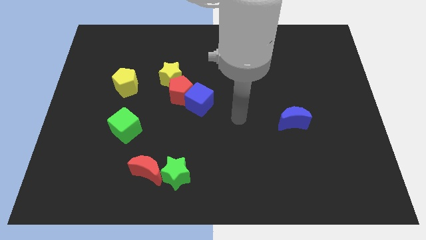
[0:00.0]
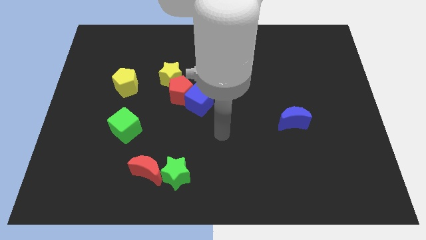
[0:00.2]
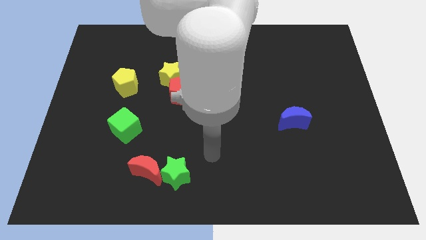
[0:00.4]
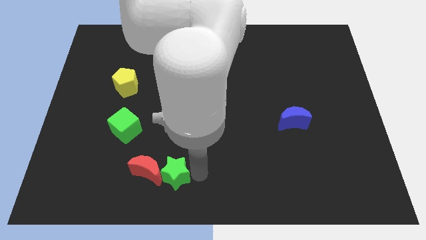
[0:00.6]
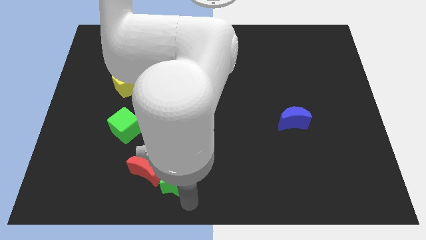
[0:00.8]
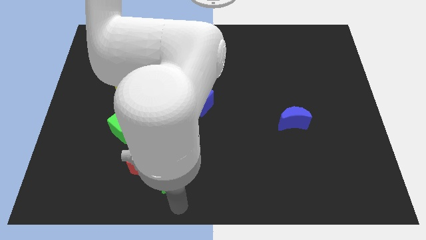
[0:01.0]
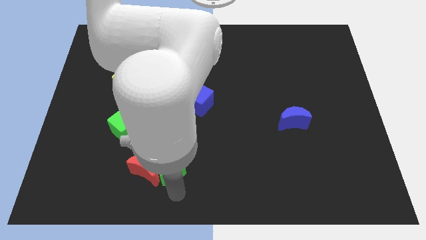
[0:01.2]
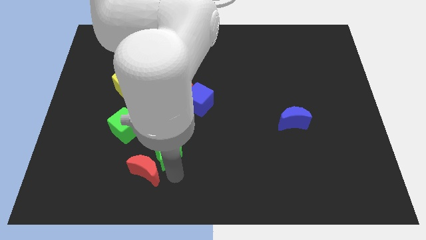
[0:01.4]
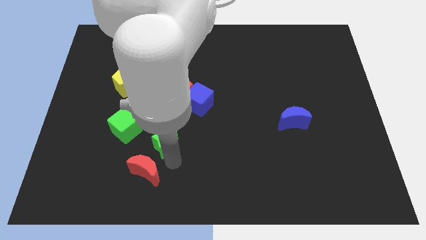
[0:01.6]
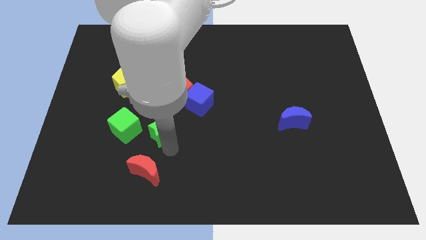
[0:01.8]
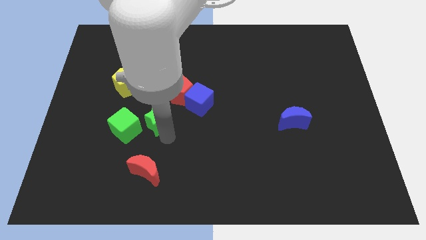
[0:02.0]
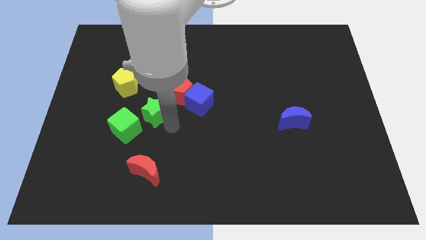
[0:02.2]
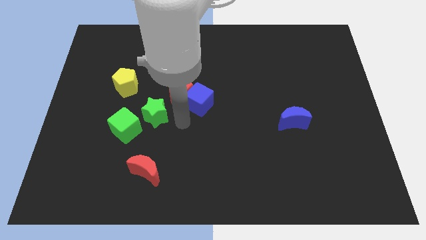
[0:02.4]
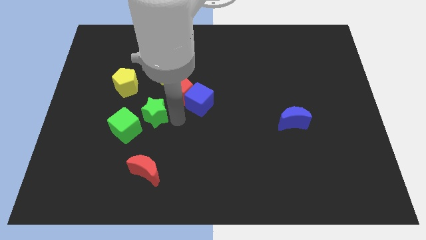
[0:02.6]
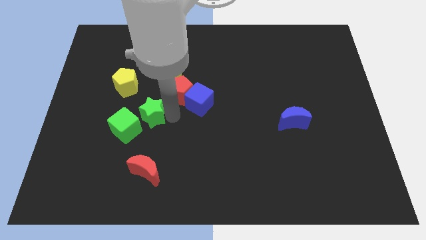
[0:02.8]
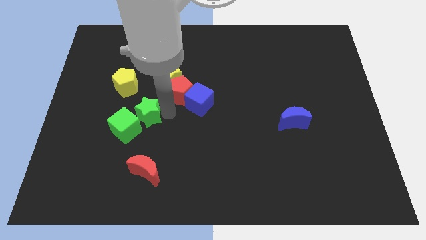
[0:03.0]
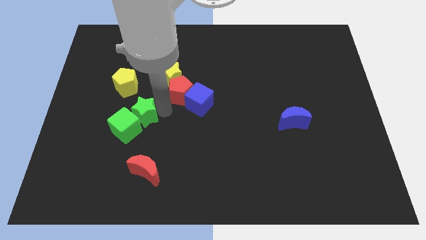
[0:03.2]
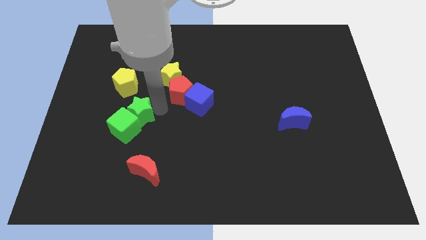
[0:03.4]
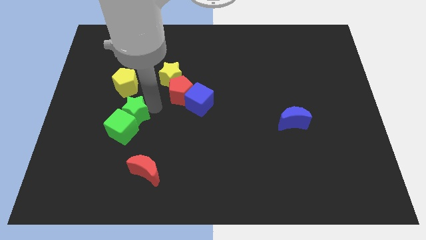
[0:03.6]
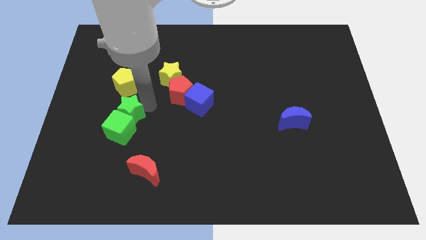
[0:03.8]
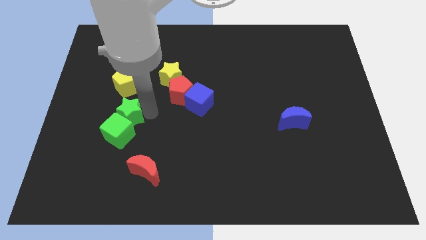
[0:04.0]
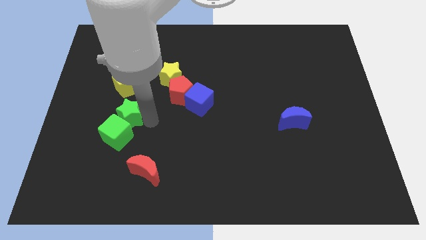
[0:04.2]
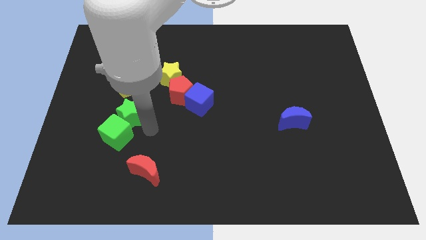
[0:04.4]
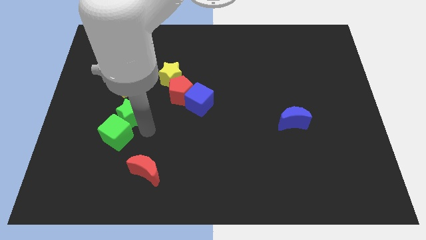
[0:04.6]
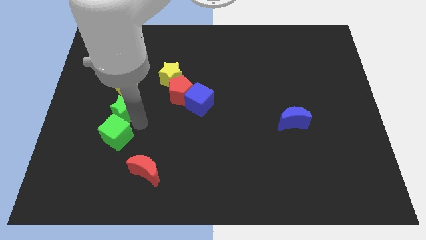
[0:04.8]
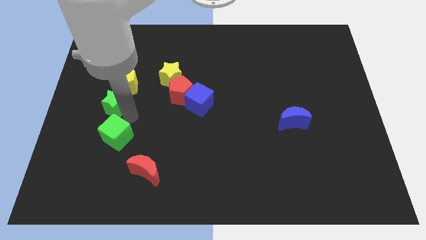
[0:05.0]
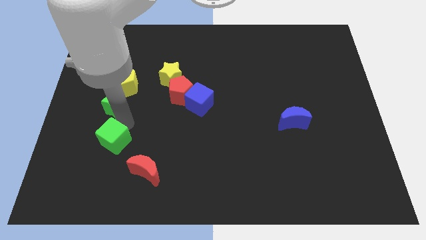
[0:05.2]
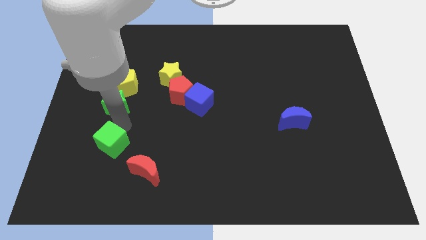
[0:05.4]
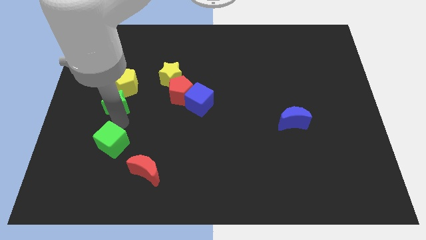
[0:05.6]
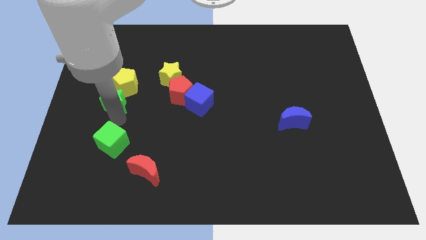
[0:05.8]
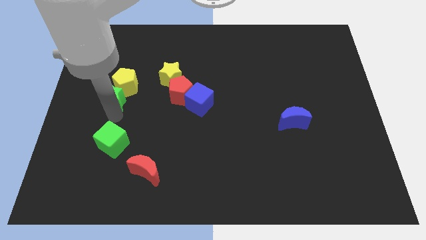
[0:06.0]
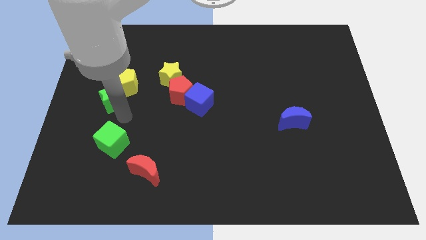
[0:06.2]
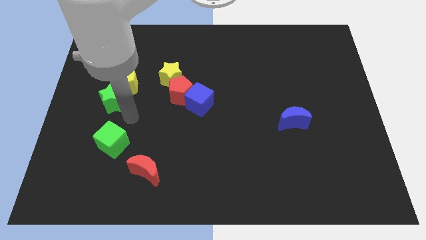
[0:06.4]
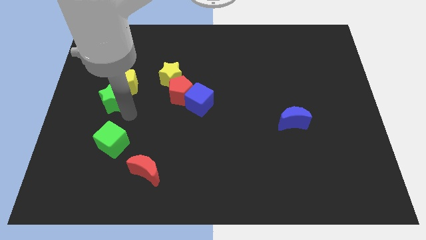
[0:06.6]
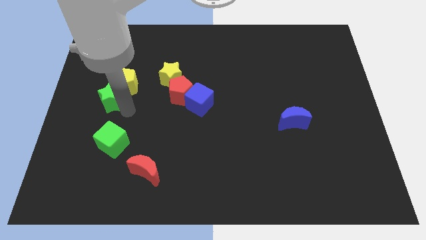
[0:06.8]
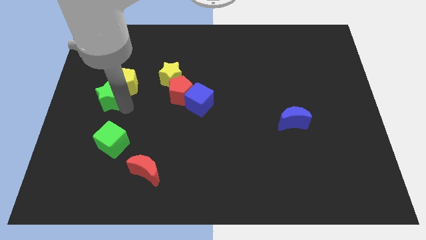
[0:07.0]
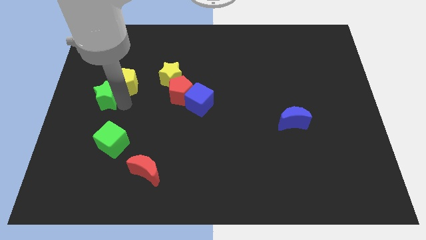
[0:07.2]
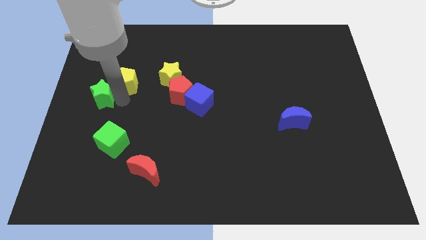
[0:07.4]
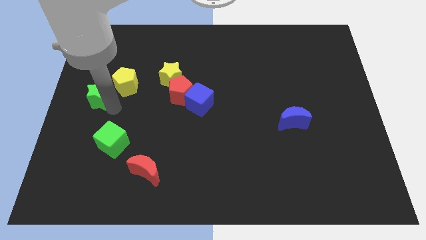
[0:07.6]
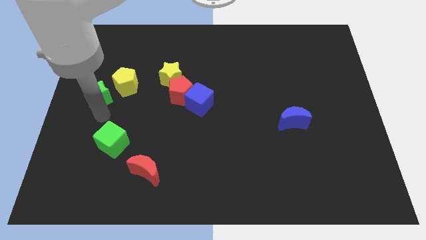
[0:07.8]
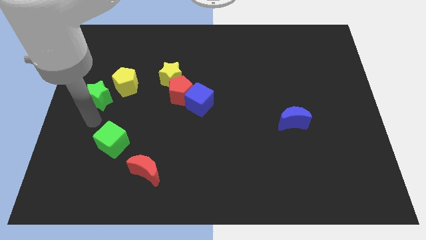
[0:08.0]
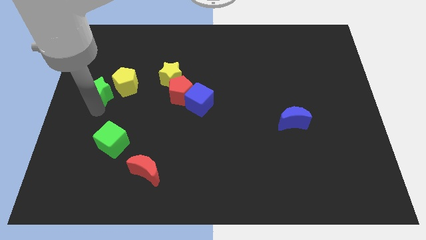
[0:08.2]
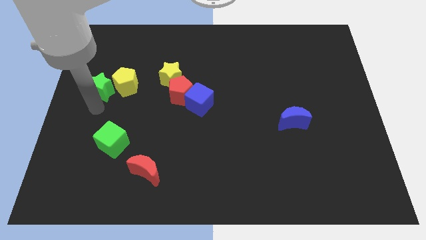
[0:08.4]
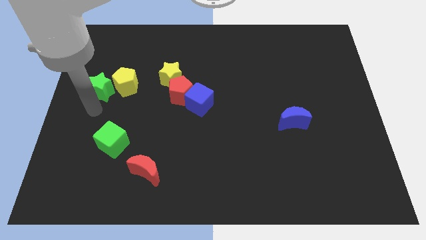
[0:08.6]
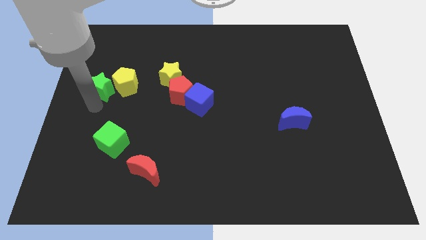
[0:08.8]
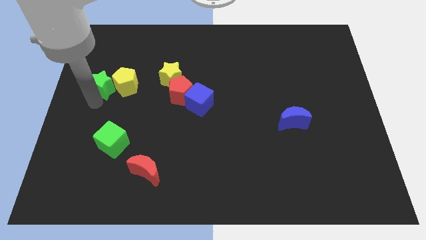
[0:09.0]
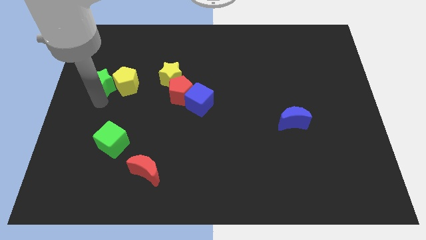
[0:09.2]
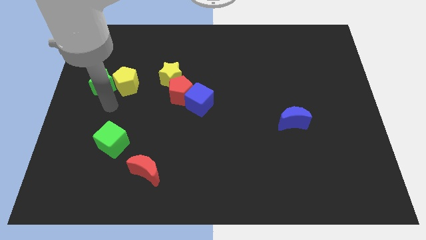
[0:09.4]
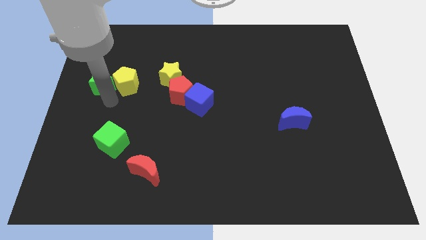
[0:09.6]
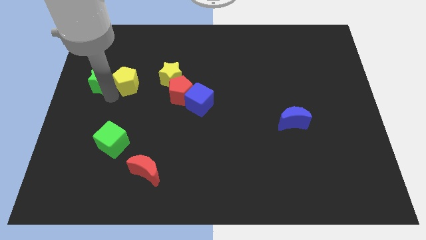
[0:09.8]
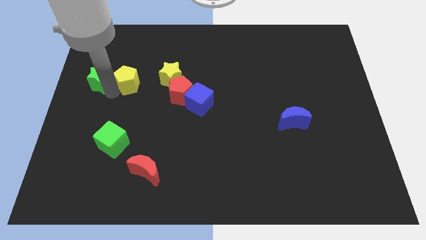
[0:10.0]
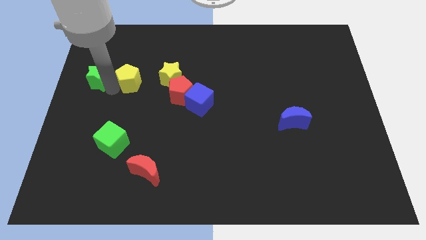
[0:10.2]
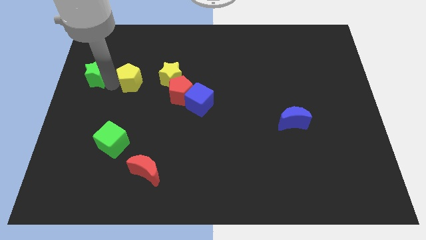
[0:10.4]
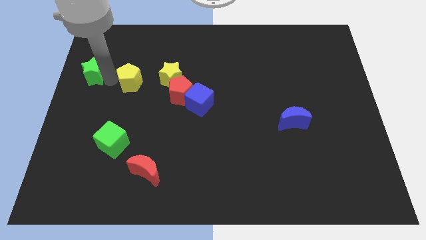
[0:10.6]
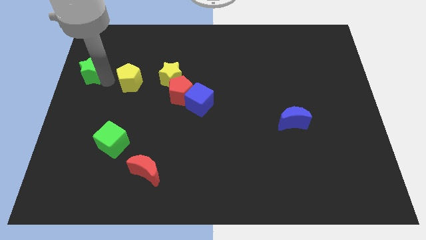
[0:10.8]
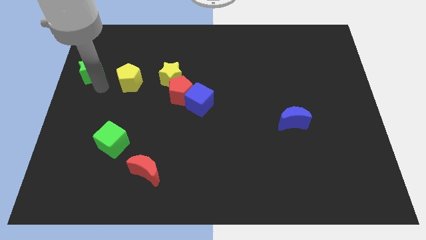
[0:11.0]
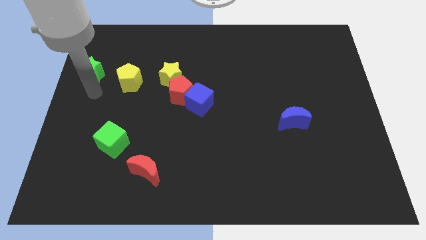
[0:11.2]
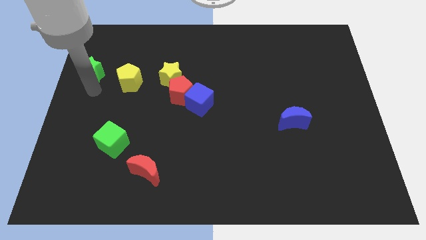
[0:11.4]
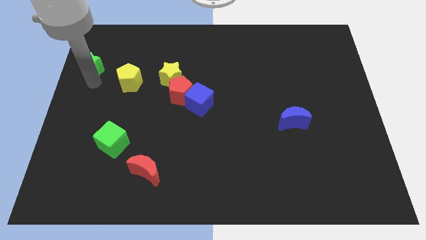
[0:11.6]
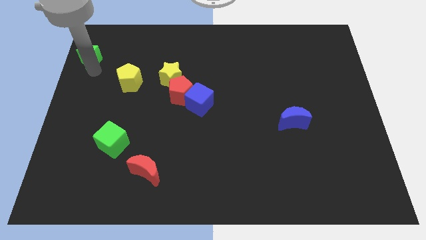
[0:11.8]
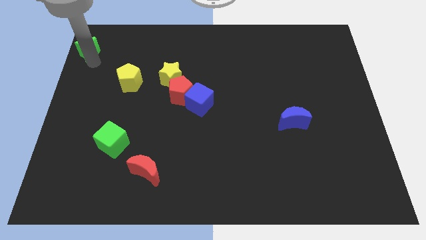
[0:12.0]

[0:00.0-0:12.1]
push the green star to the upper left corner
